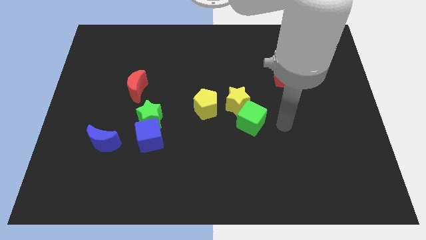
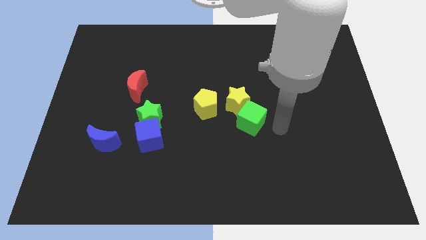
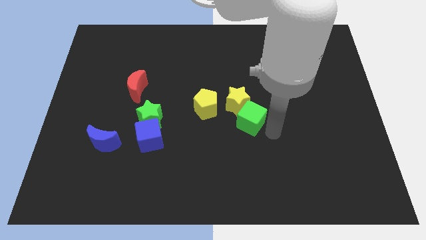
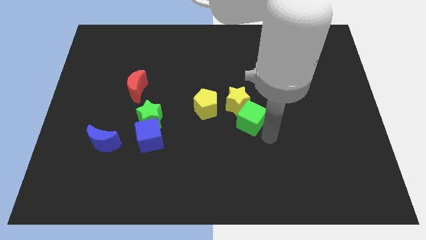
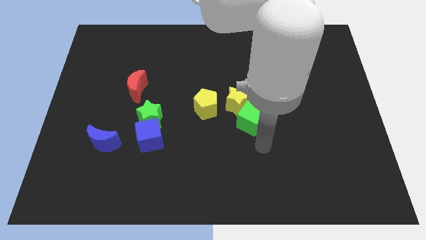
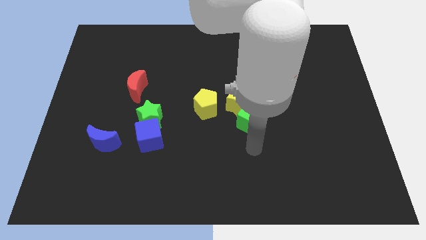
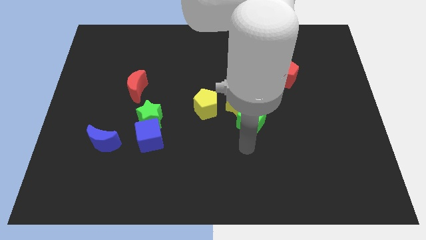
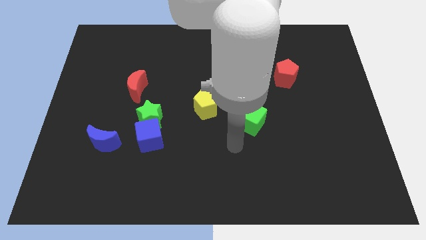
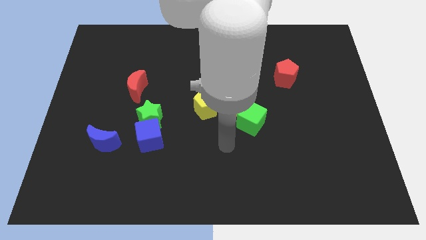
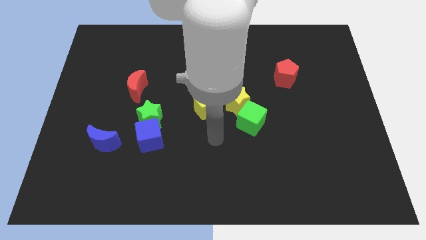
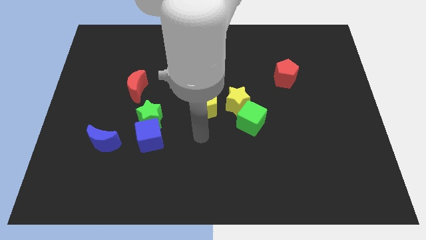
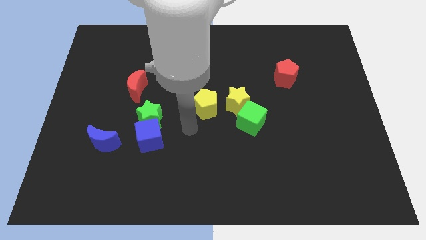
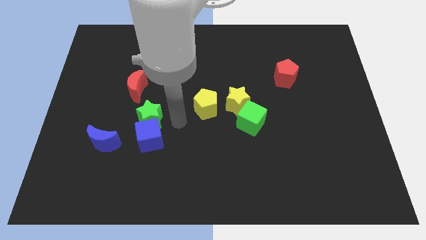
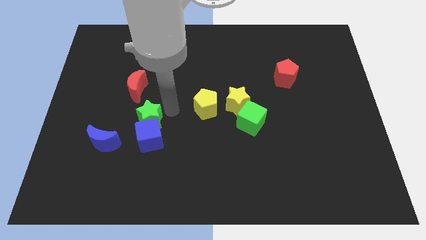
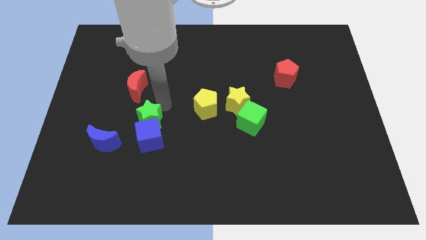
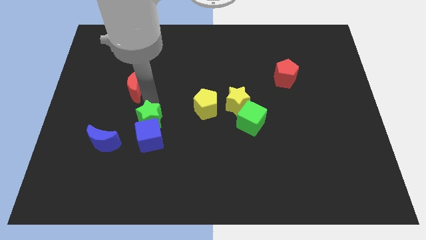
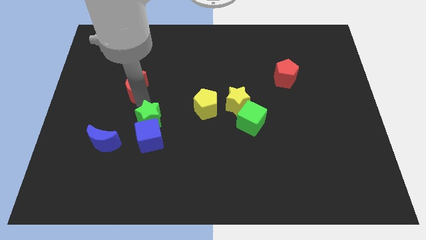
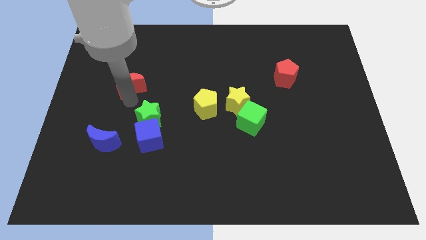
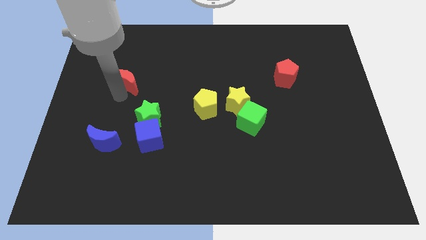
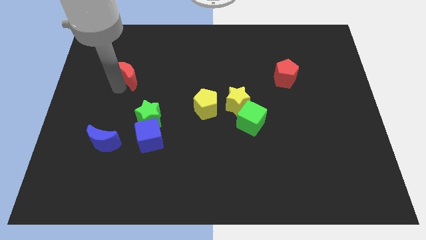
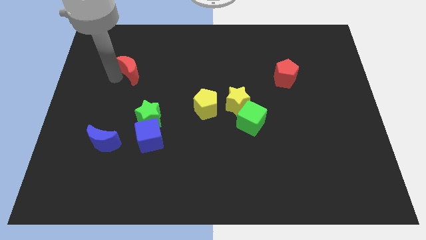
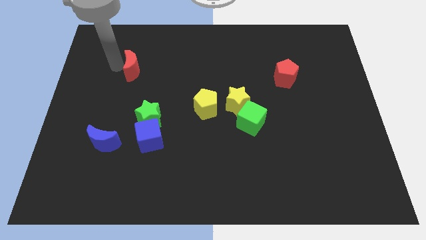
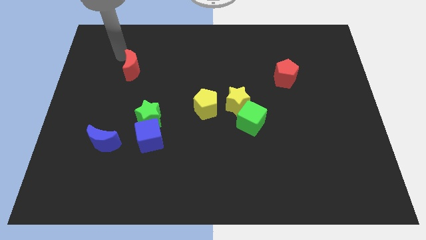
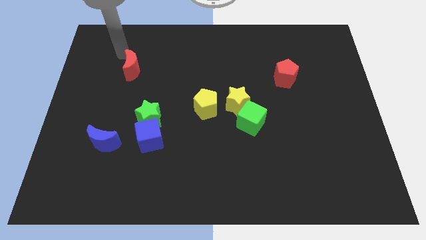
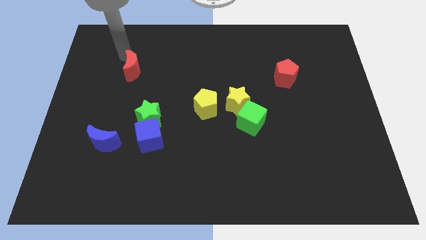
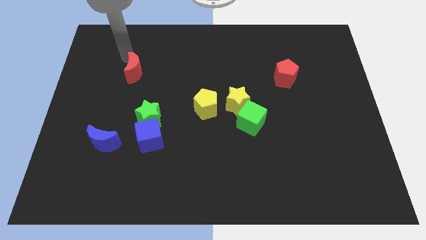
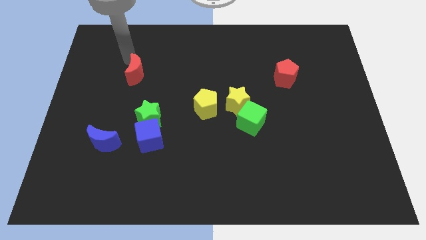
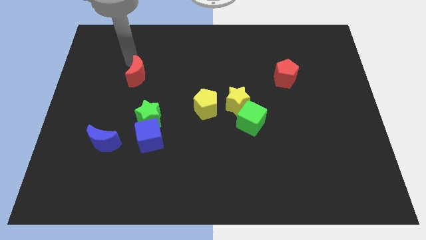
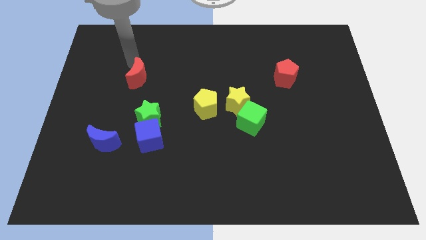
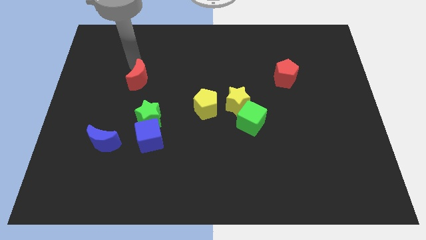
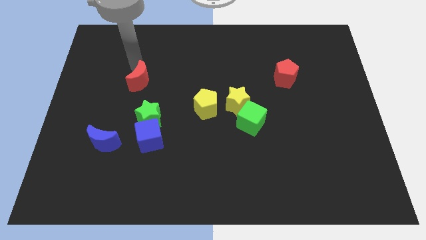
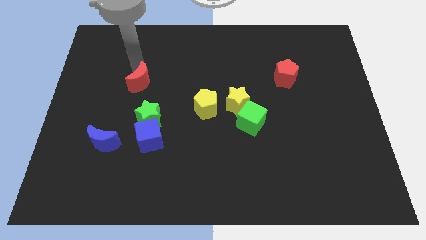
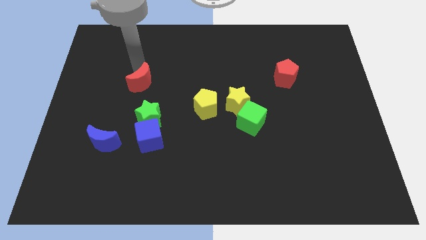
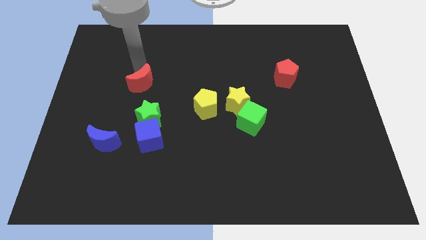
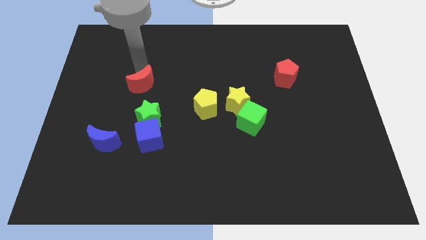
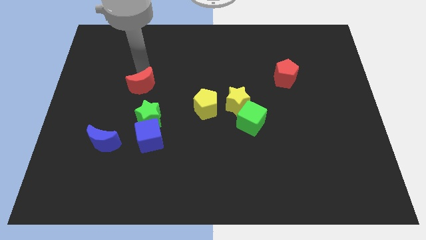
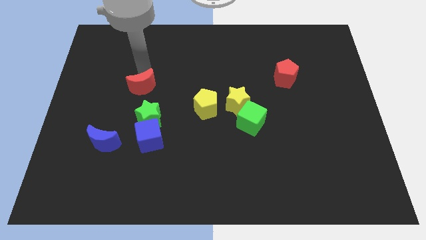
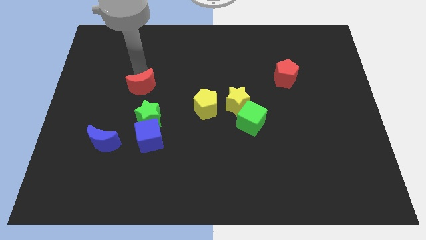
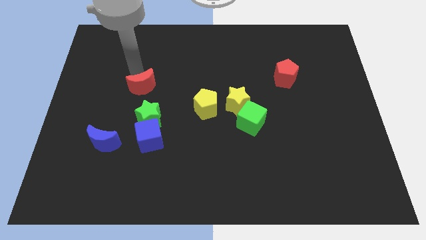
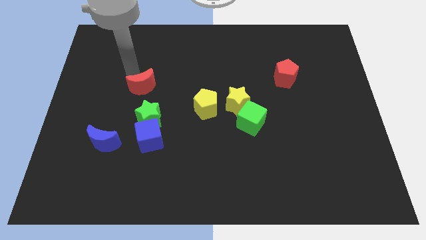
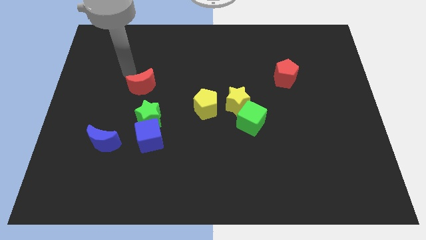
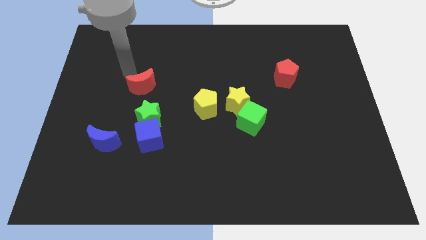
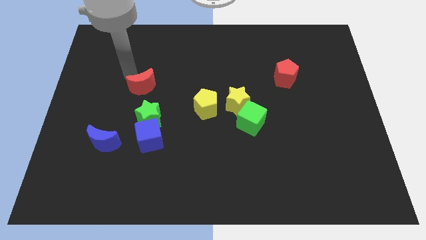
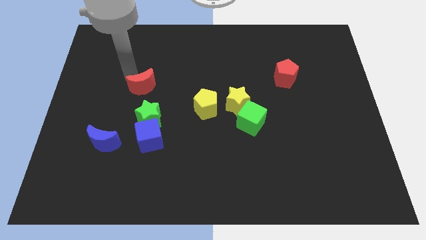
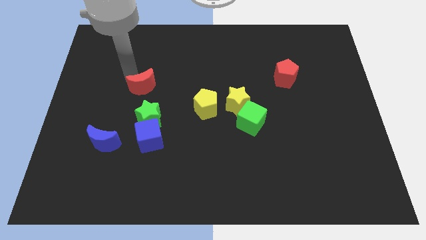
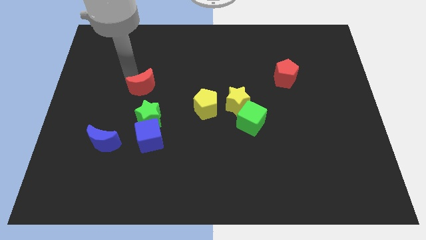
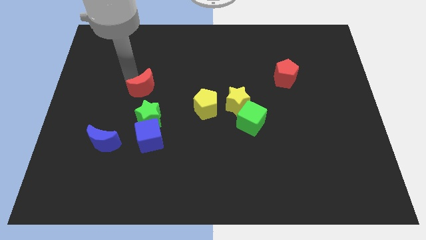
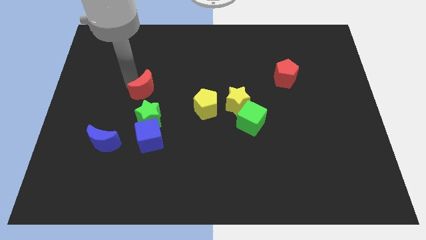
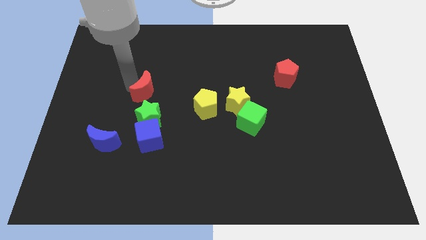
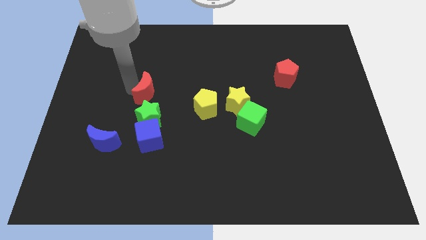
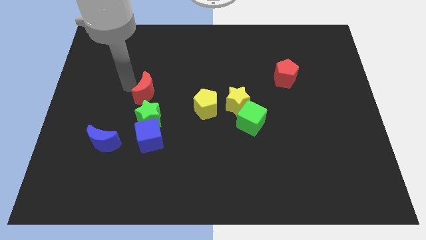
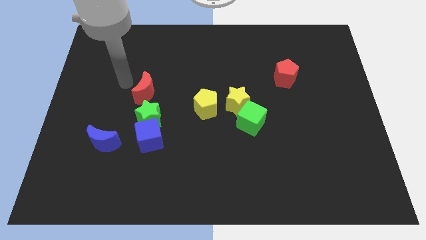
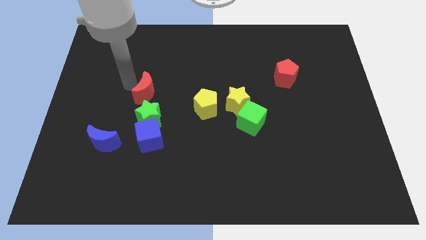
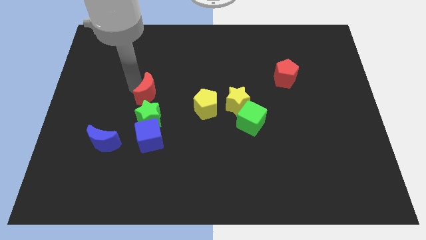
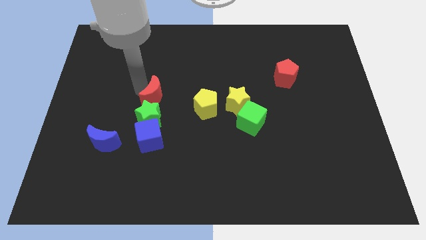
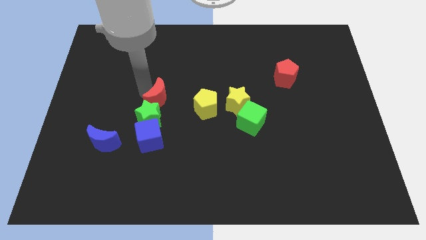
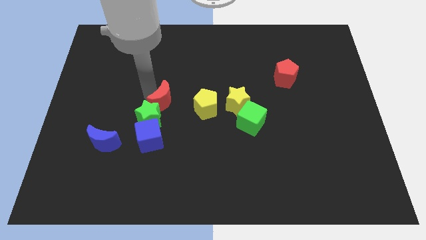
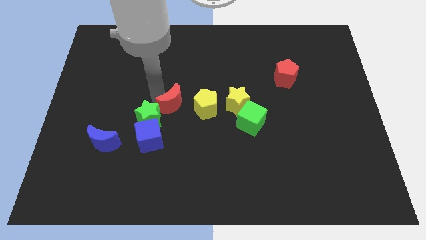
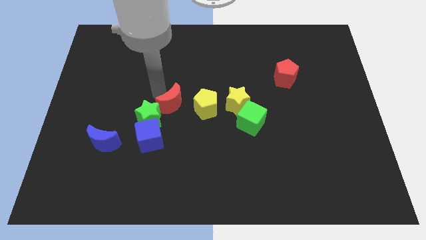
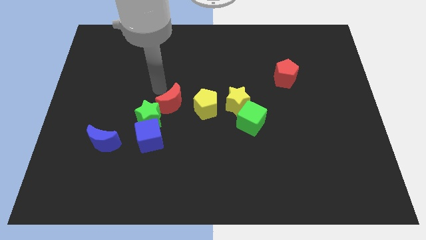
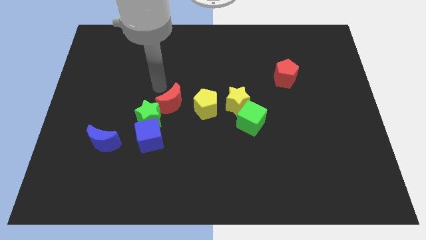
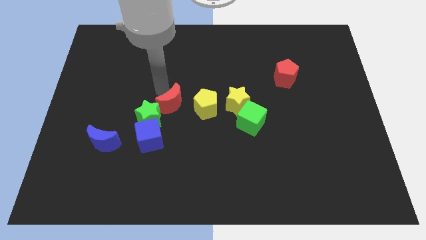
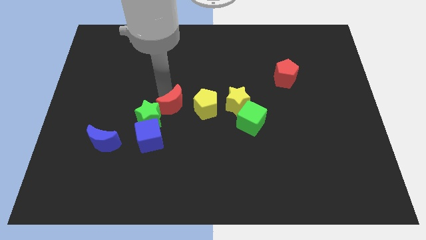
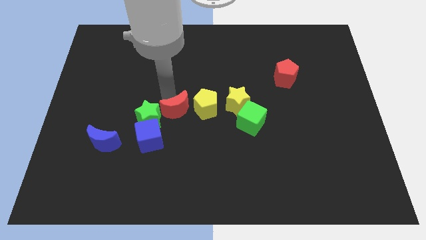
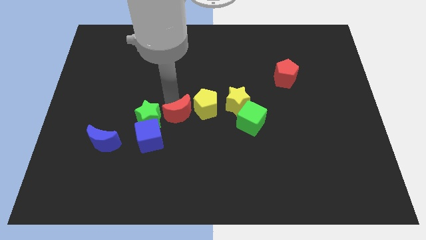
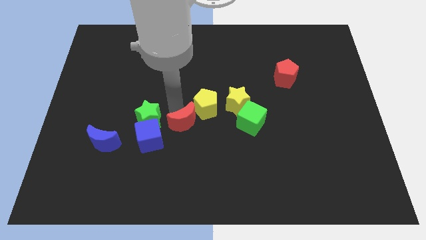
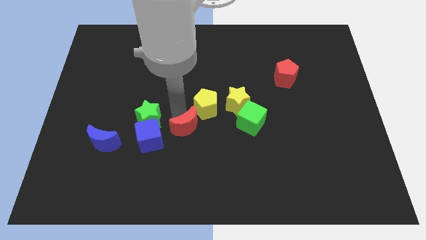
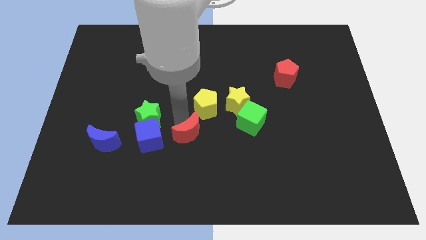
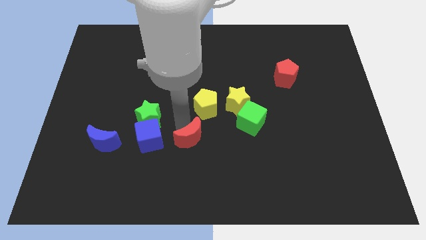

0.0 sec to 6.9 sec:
push the red moon downwards and right

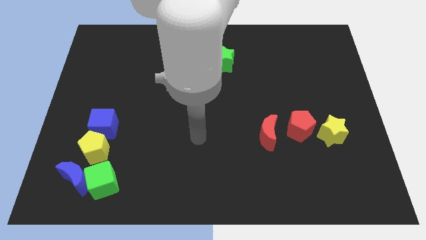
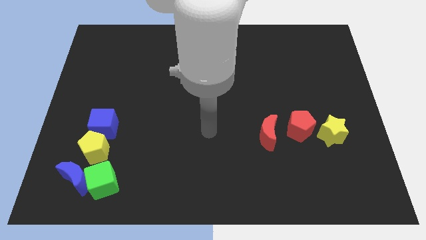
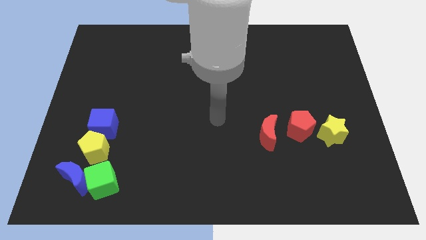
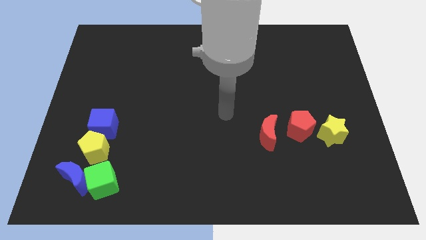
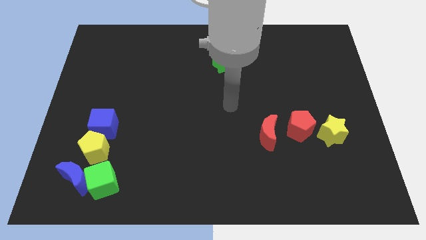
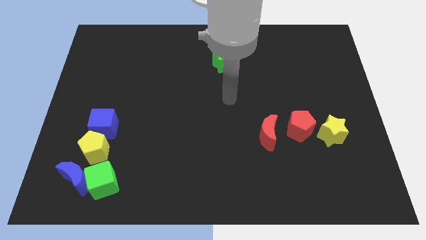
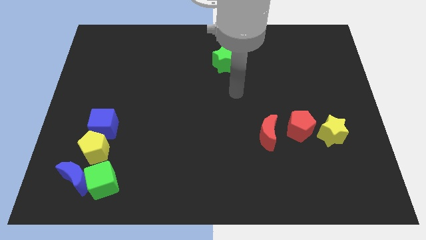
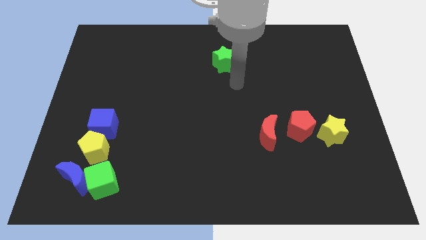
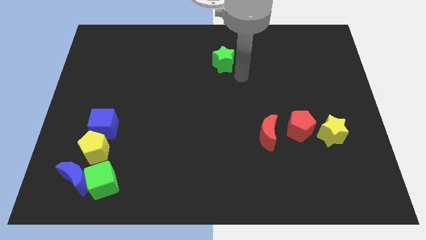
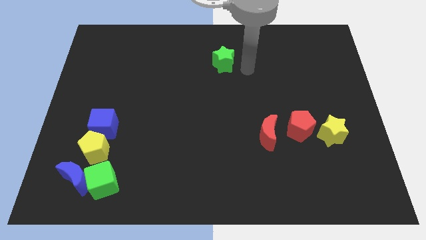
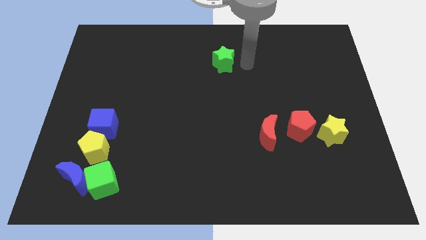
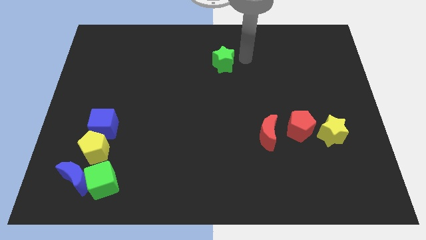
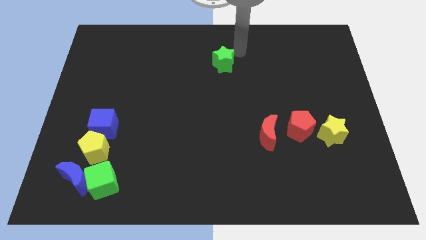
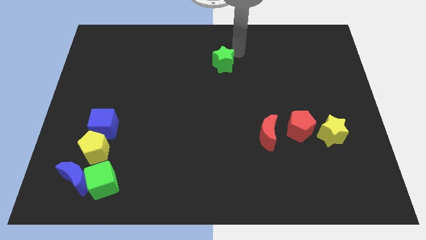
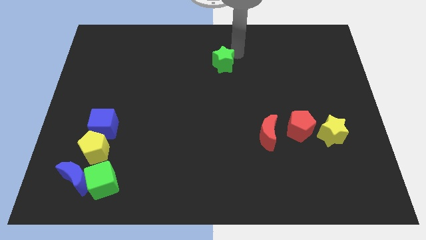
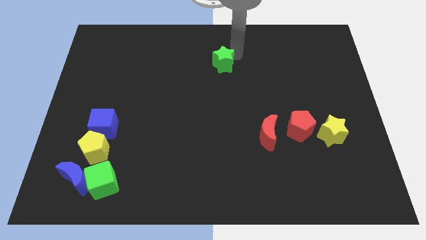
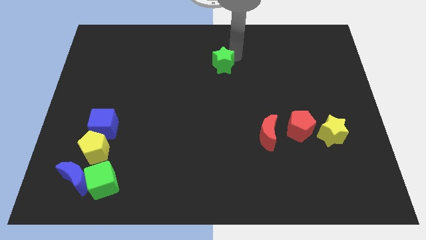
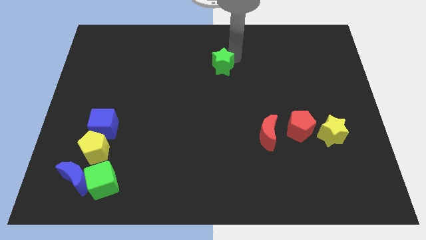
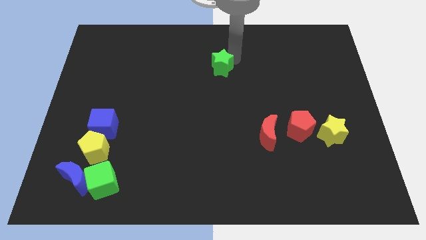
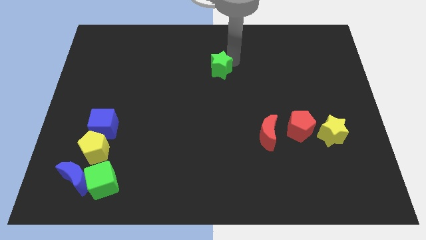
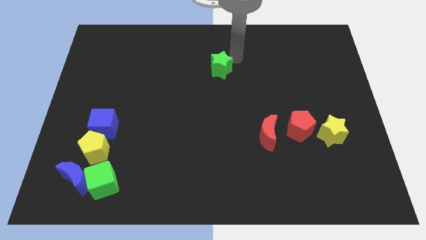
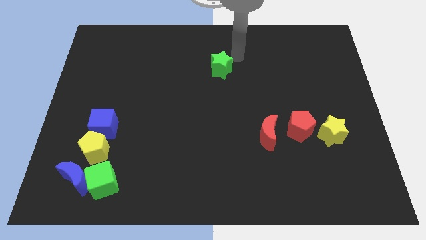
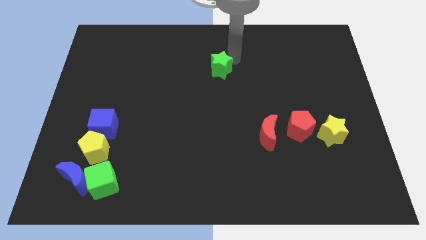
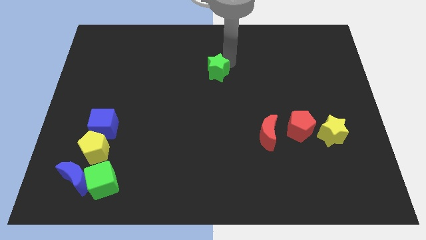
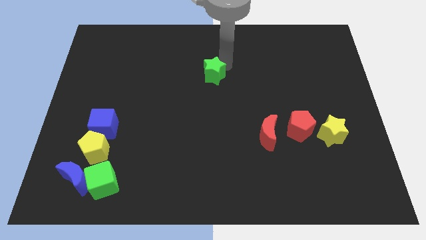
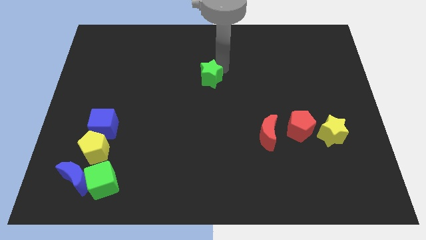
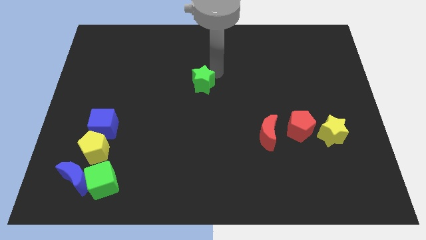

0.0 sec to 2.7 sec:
slightly push the green star downwards and to the left diagonally
